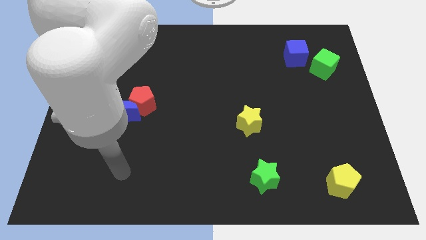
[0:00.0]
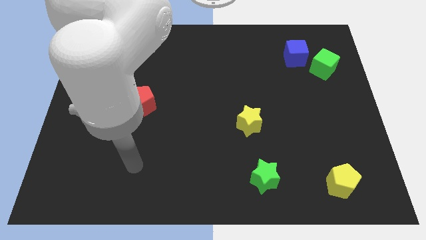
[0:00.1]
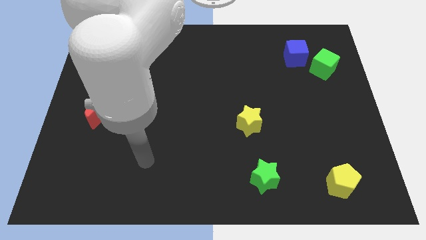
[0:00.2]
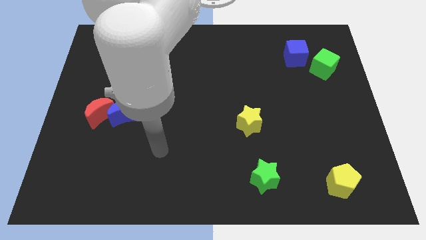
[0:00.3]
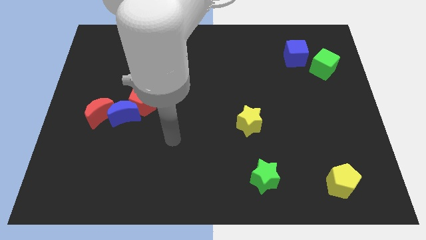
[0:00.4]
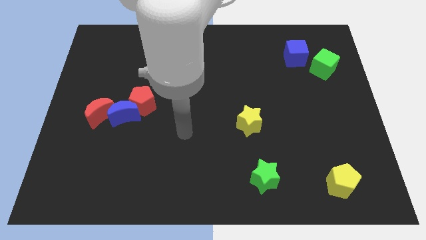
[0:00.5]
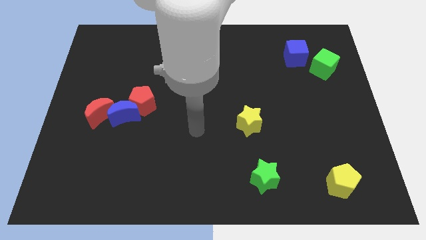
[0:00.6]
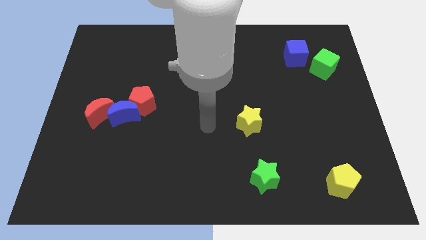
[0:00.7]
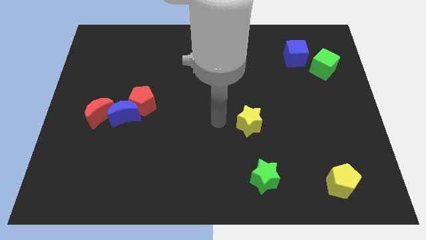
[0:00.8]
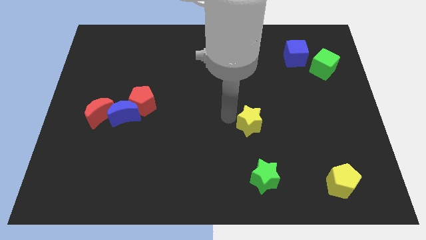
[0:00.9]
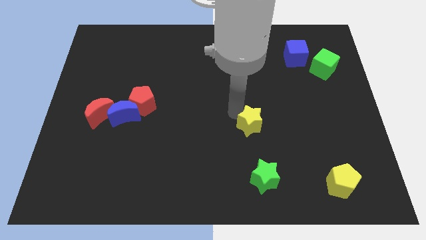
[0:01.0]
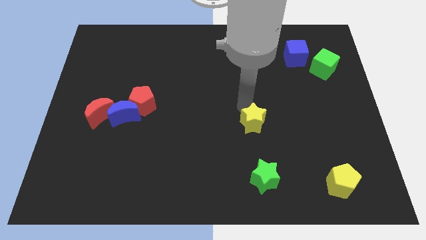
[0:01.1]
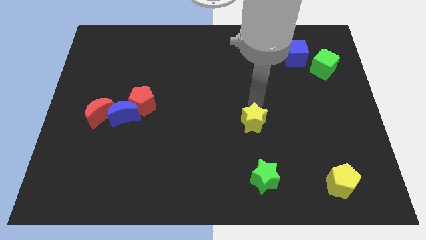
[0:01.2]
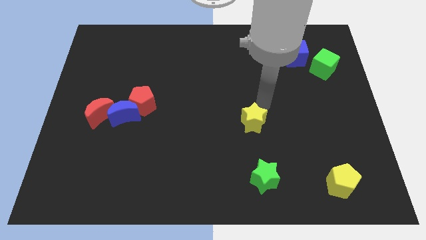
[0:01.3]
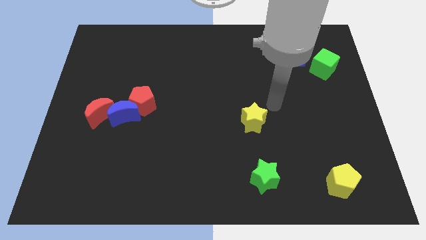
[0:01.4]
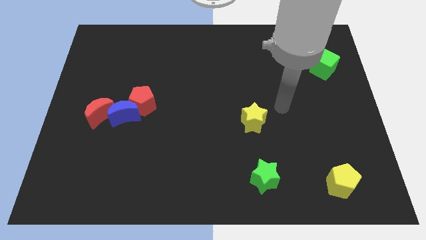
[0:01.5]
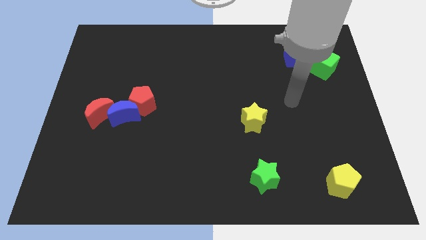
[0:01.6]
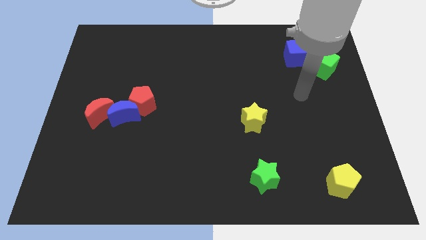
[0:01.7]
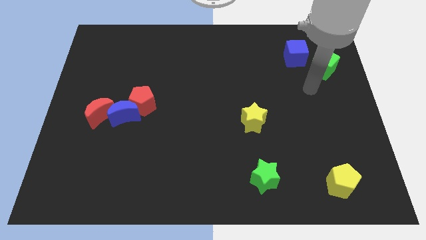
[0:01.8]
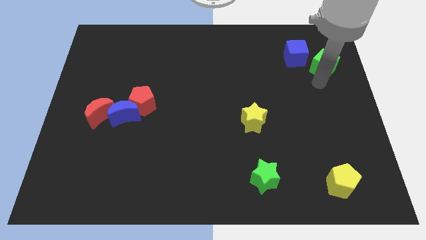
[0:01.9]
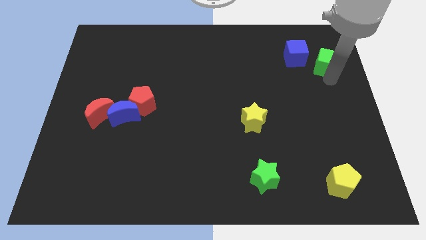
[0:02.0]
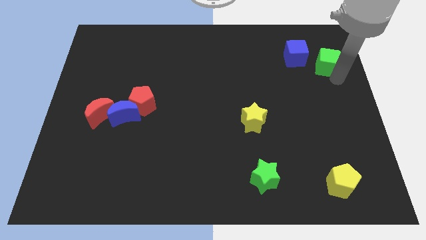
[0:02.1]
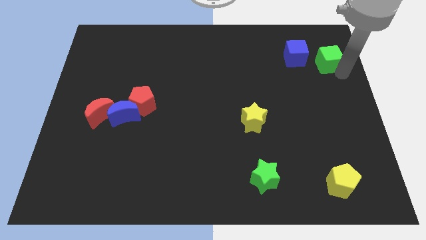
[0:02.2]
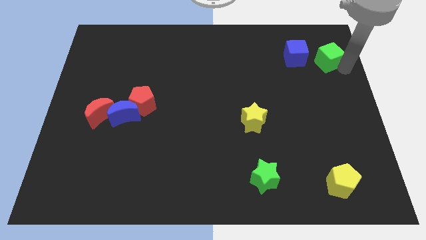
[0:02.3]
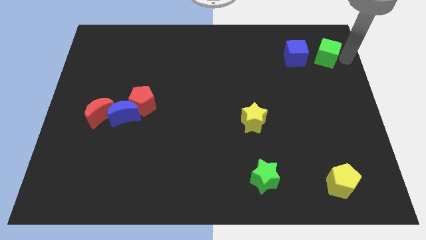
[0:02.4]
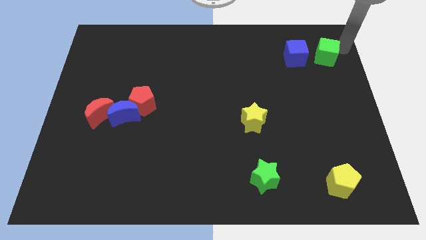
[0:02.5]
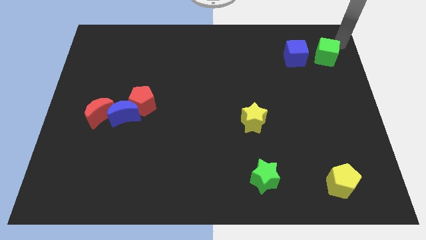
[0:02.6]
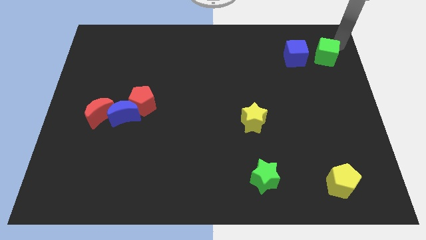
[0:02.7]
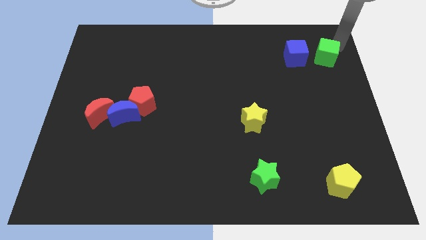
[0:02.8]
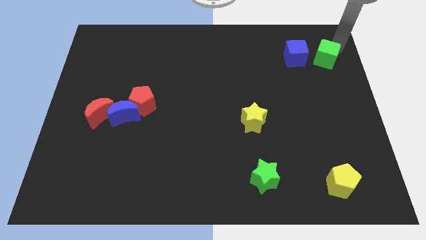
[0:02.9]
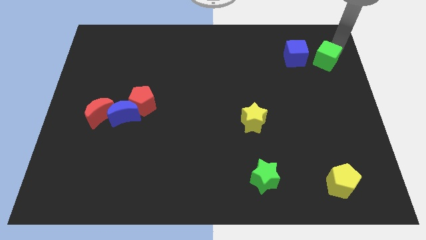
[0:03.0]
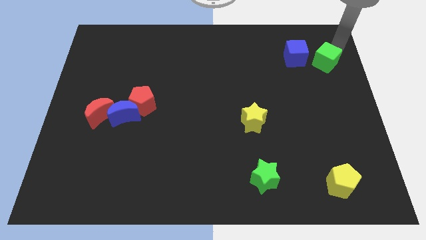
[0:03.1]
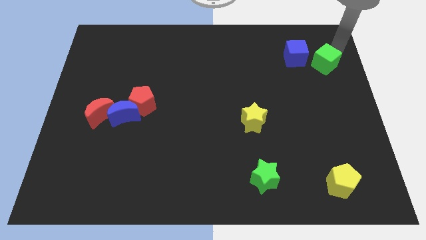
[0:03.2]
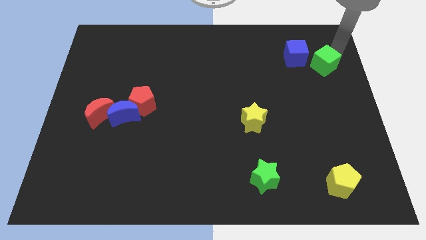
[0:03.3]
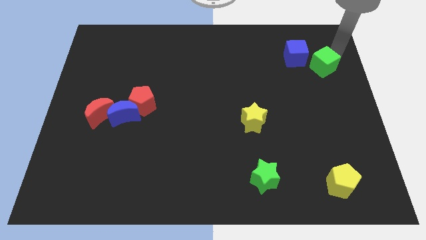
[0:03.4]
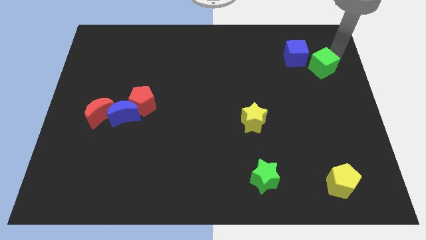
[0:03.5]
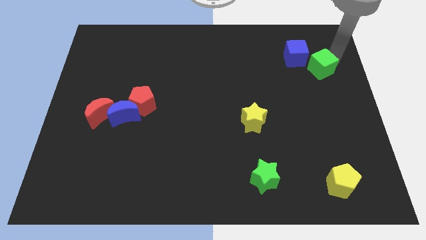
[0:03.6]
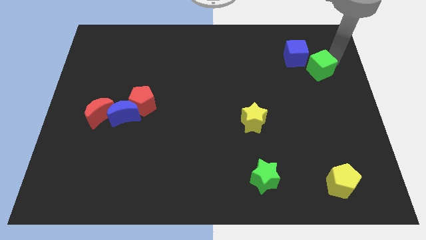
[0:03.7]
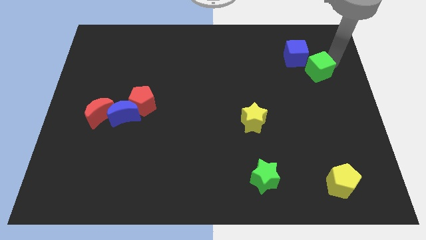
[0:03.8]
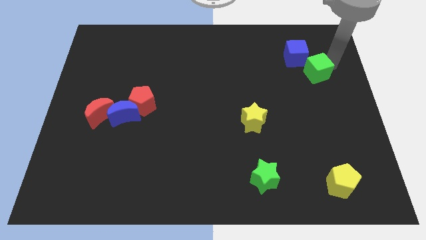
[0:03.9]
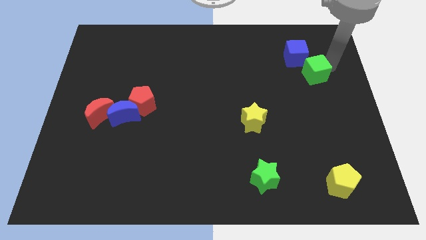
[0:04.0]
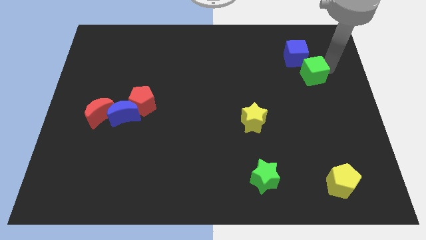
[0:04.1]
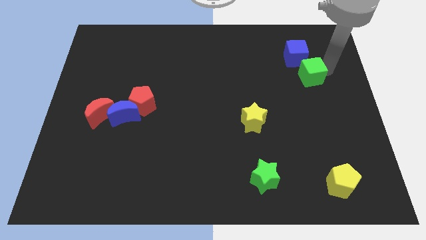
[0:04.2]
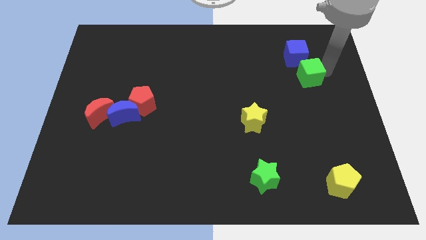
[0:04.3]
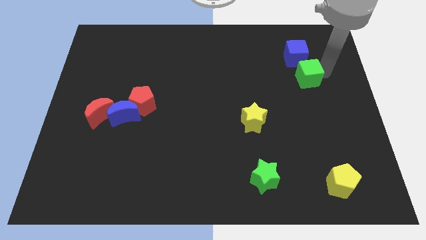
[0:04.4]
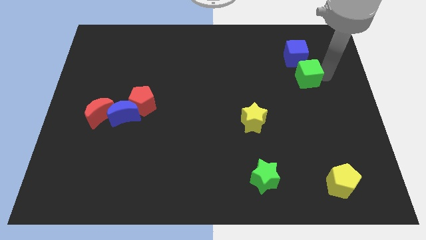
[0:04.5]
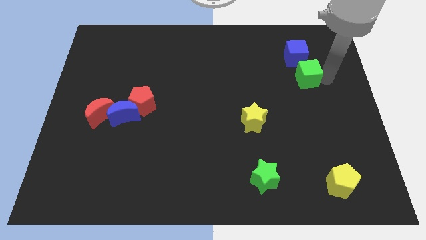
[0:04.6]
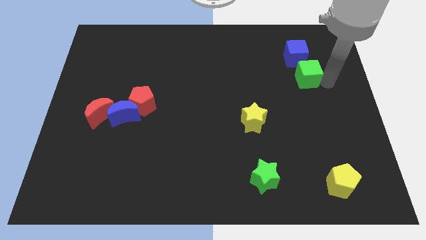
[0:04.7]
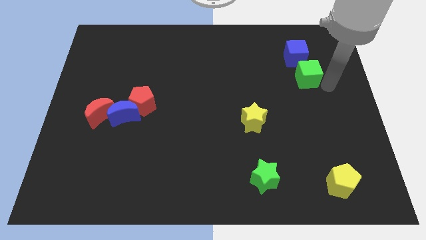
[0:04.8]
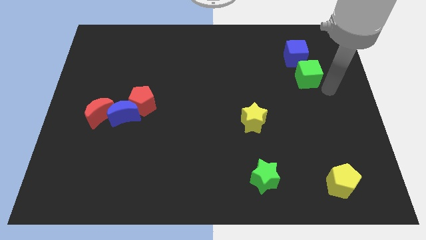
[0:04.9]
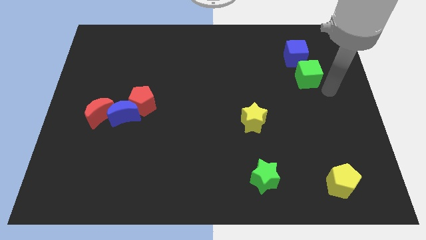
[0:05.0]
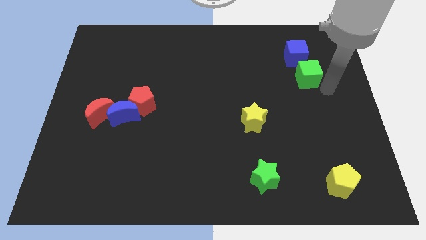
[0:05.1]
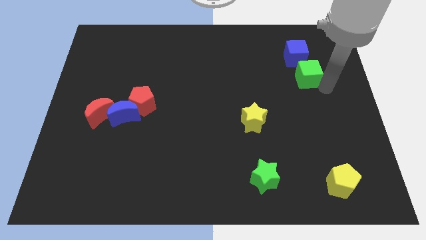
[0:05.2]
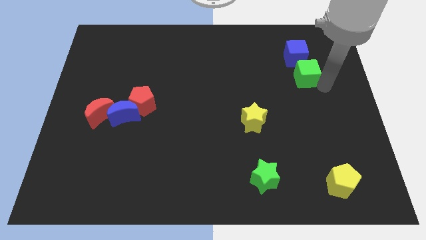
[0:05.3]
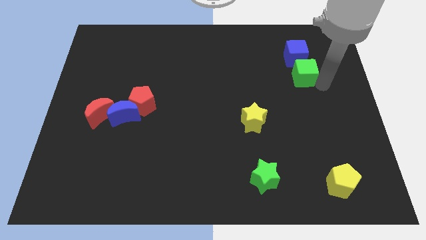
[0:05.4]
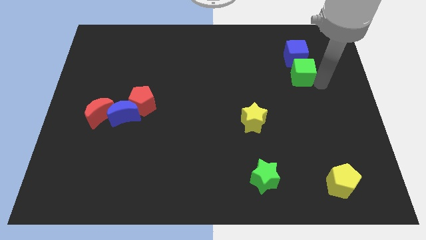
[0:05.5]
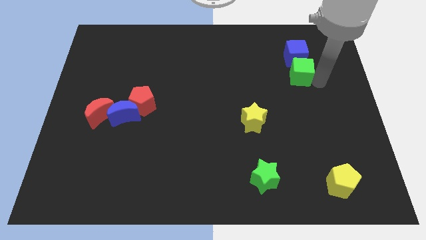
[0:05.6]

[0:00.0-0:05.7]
slide the green cube to the bottom left of the blue cube
